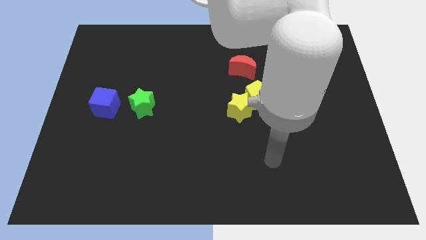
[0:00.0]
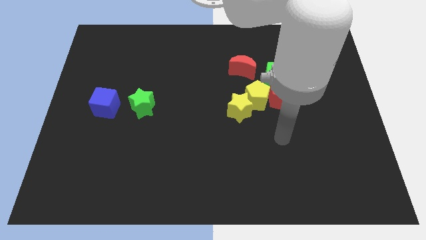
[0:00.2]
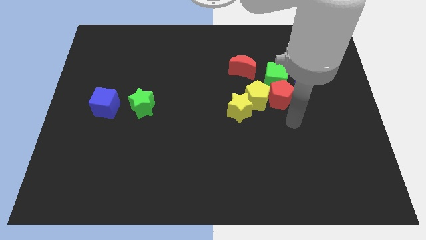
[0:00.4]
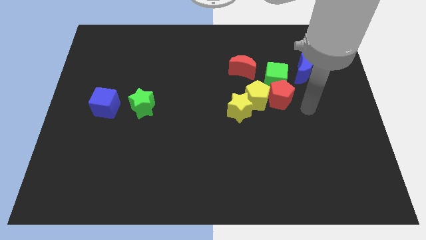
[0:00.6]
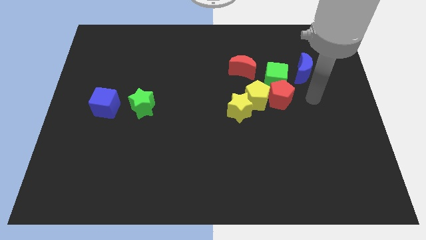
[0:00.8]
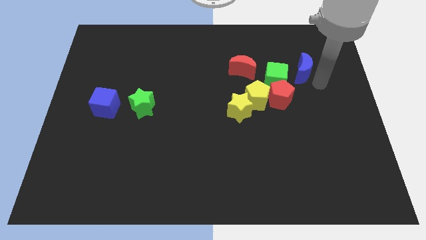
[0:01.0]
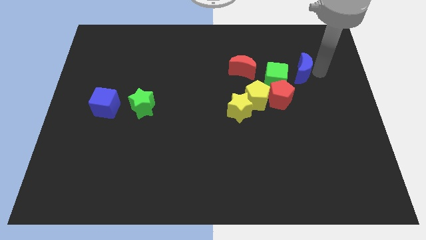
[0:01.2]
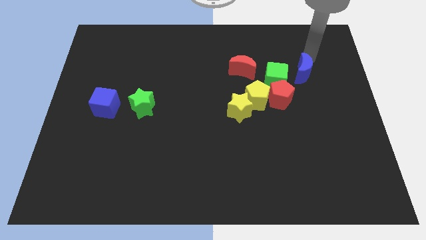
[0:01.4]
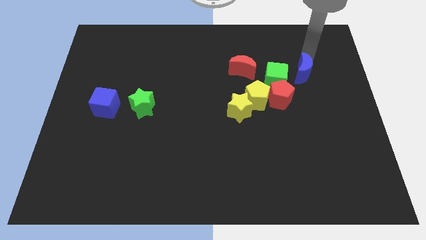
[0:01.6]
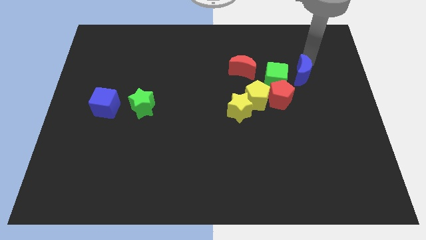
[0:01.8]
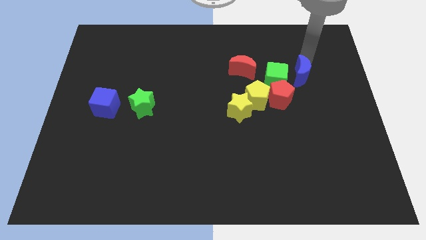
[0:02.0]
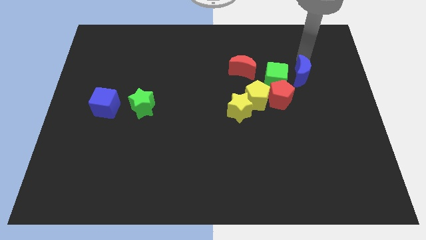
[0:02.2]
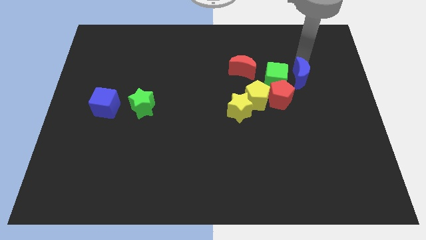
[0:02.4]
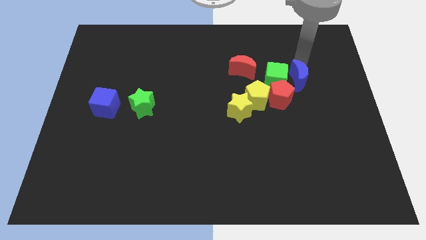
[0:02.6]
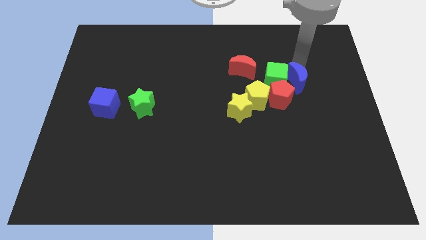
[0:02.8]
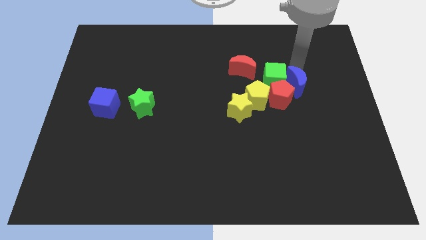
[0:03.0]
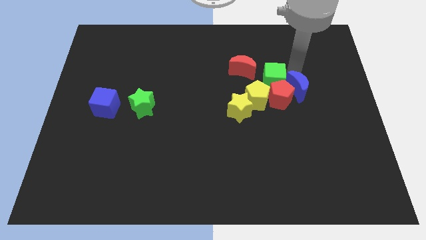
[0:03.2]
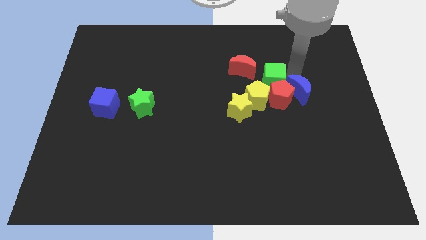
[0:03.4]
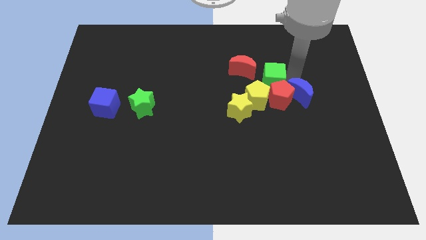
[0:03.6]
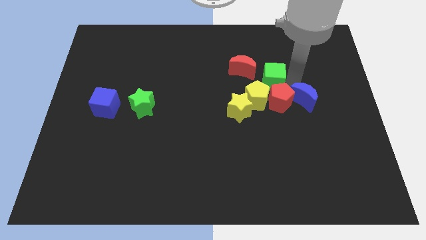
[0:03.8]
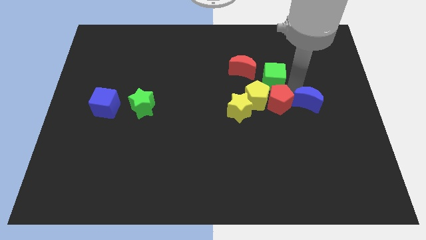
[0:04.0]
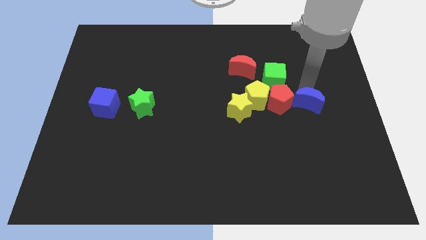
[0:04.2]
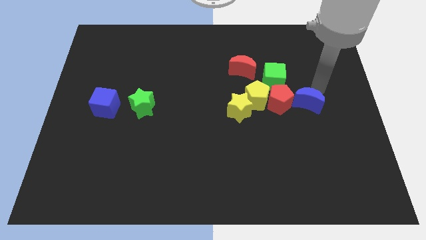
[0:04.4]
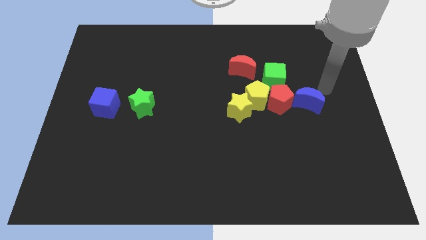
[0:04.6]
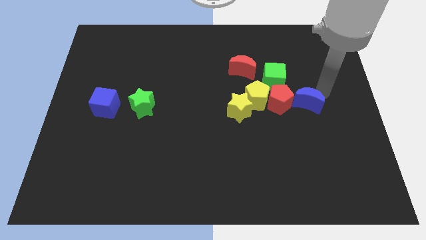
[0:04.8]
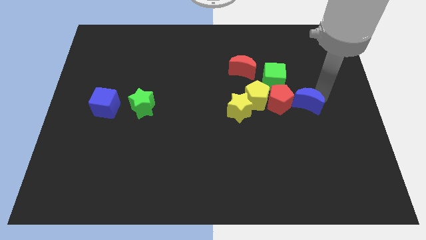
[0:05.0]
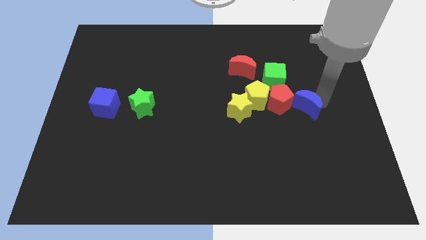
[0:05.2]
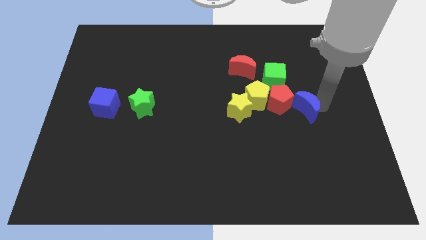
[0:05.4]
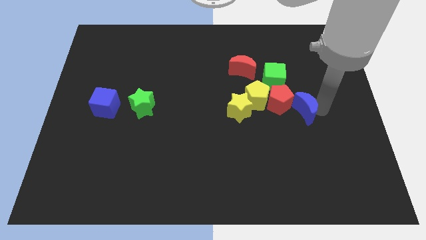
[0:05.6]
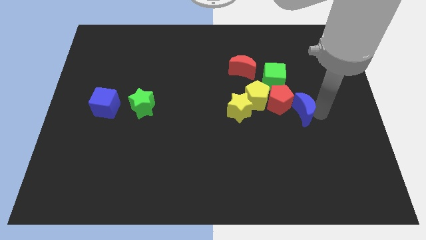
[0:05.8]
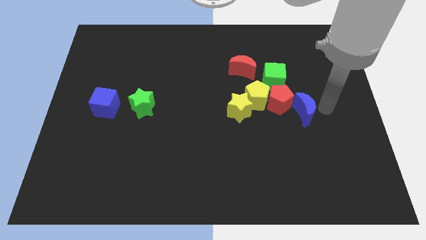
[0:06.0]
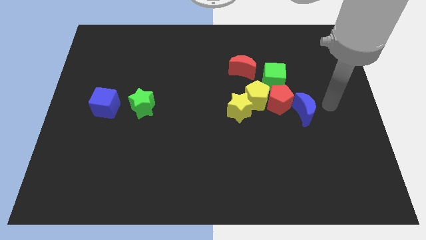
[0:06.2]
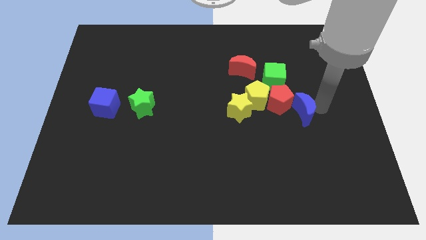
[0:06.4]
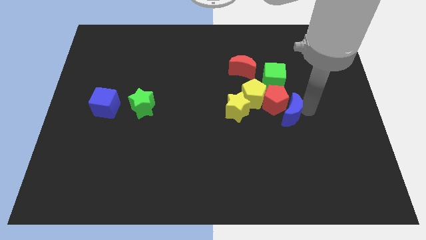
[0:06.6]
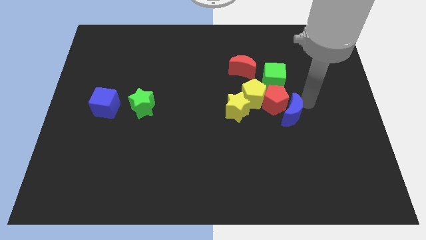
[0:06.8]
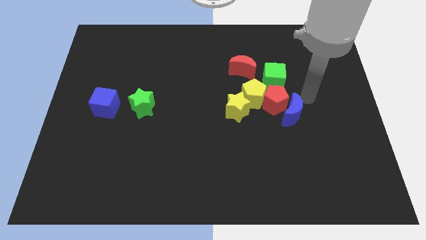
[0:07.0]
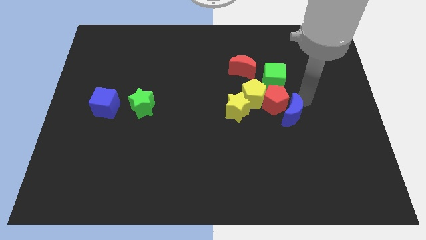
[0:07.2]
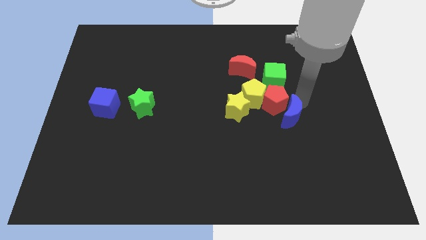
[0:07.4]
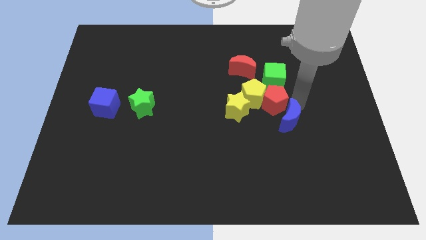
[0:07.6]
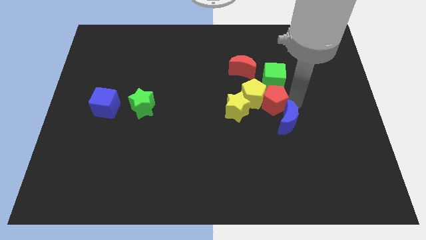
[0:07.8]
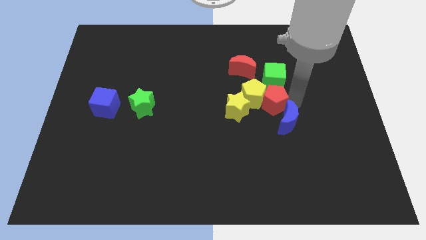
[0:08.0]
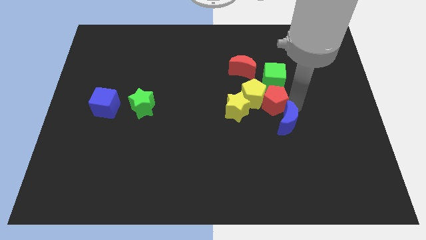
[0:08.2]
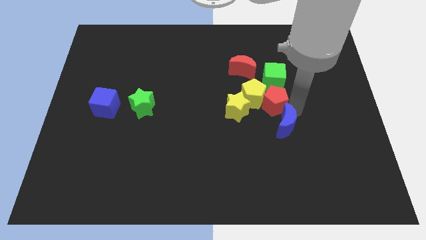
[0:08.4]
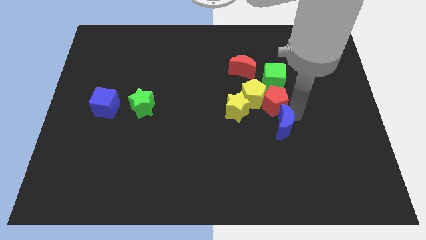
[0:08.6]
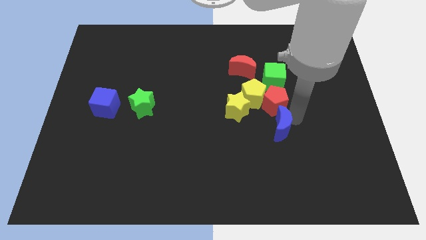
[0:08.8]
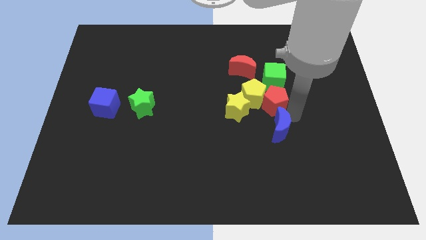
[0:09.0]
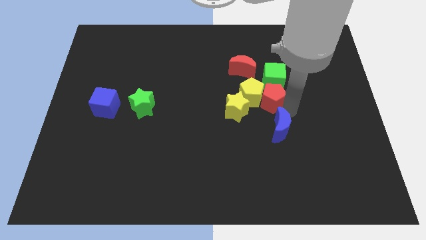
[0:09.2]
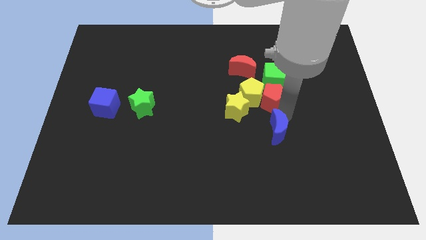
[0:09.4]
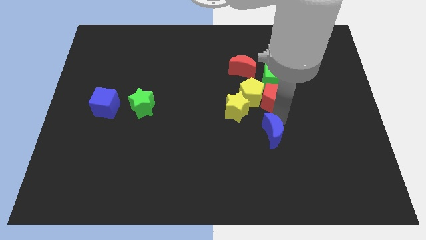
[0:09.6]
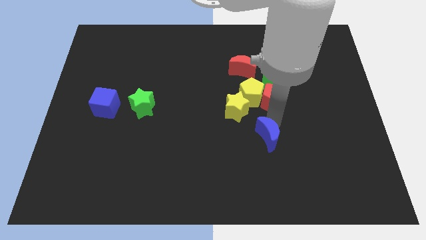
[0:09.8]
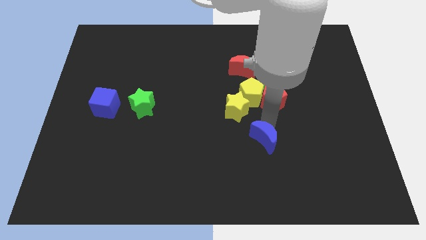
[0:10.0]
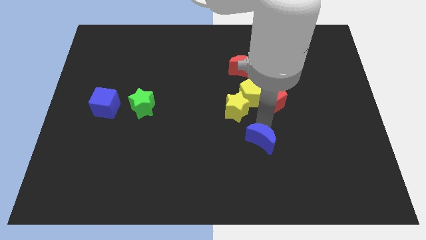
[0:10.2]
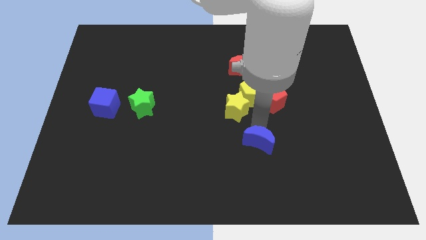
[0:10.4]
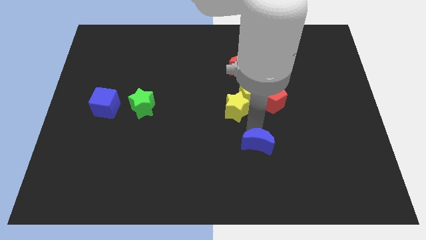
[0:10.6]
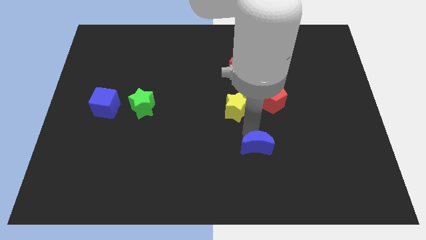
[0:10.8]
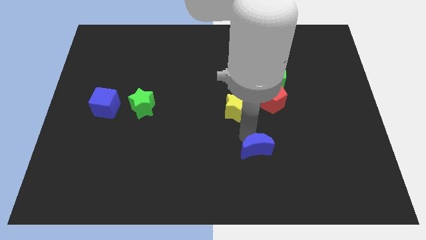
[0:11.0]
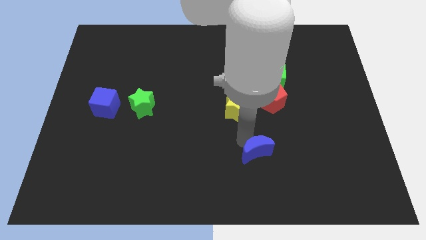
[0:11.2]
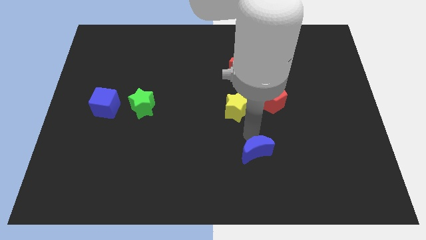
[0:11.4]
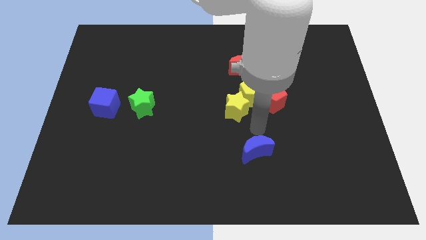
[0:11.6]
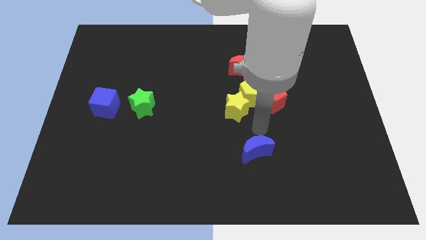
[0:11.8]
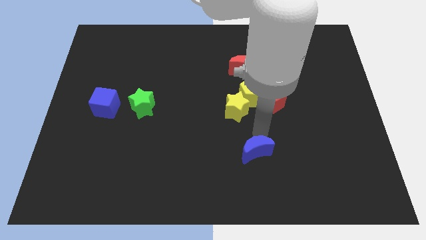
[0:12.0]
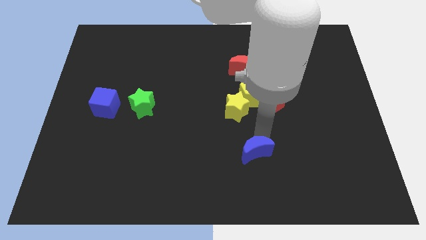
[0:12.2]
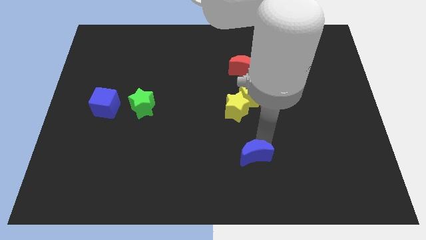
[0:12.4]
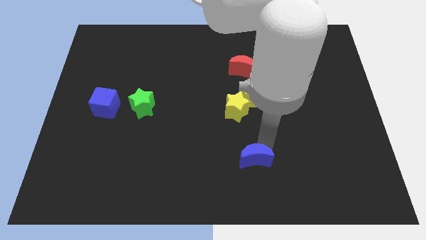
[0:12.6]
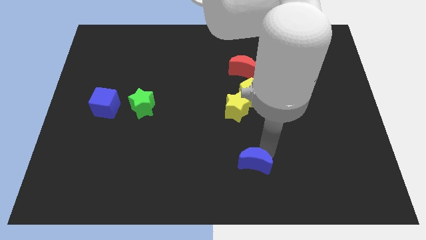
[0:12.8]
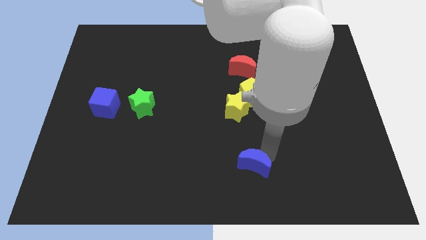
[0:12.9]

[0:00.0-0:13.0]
put the blue moon to the bottom

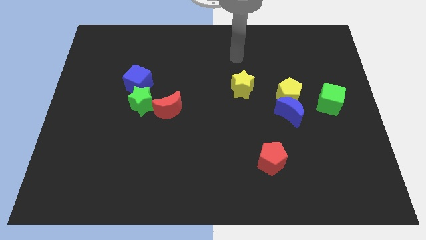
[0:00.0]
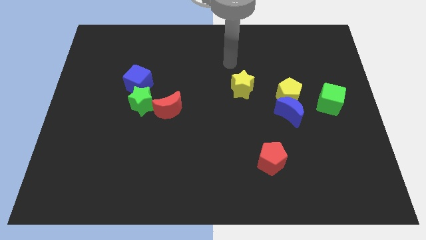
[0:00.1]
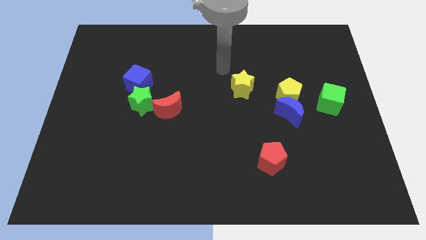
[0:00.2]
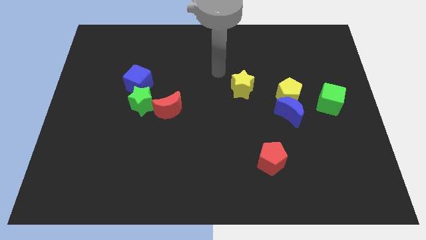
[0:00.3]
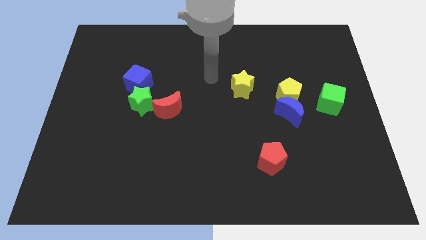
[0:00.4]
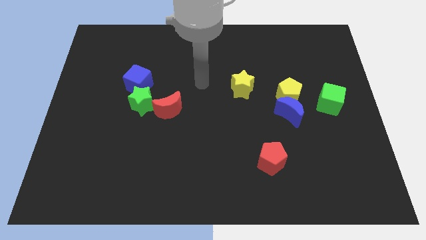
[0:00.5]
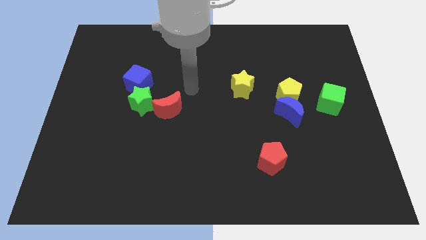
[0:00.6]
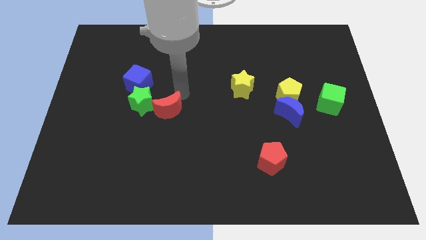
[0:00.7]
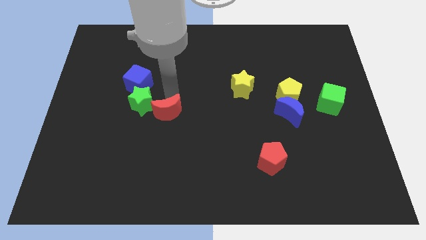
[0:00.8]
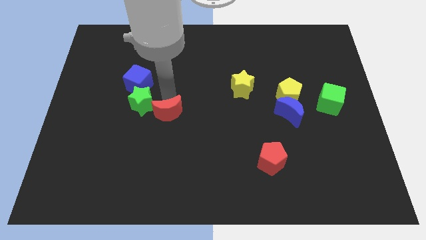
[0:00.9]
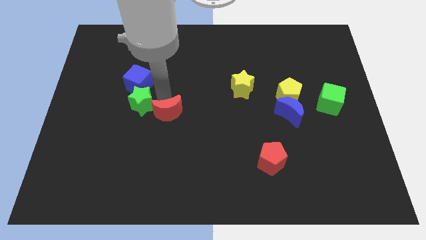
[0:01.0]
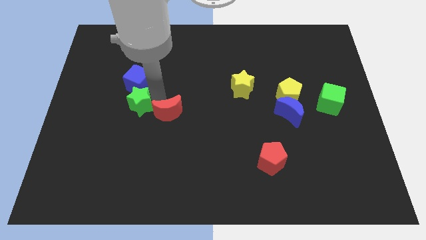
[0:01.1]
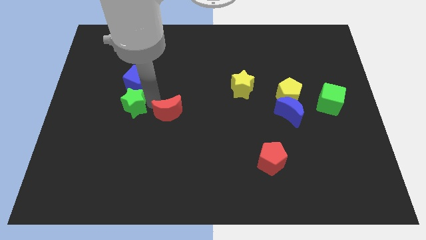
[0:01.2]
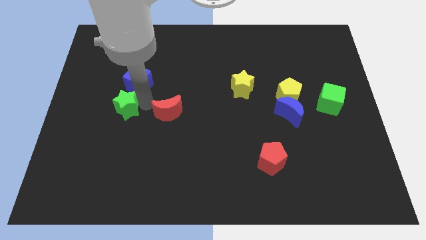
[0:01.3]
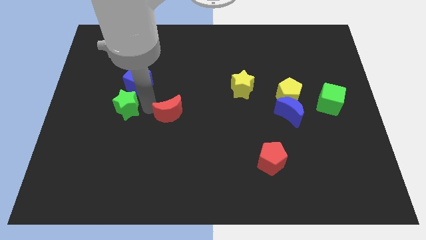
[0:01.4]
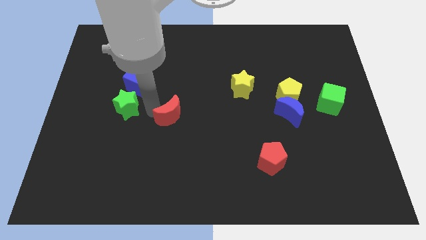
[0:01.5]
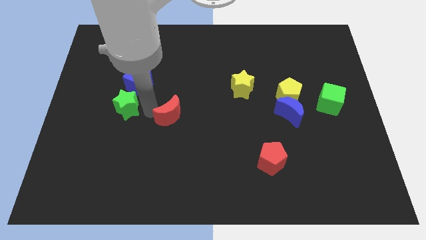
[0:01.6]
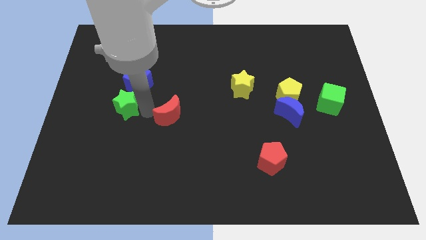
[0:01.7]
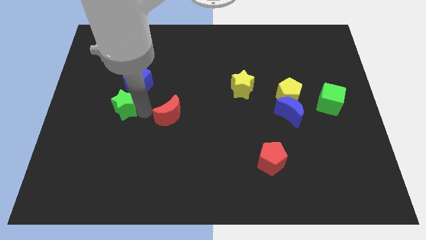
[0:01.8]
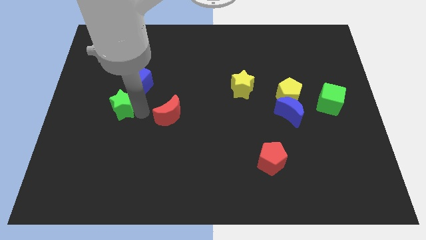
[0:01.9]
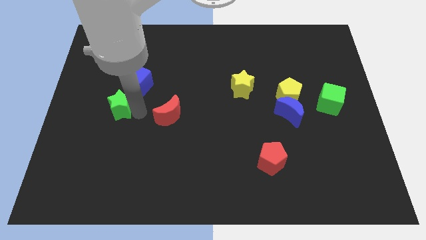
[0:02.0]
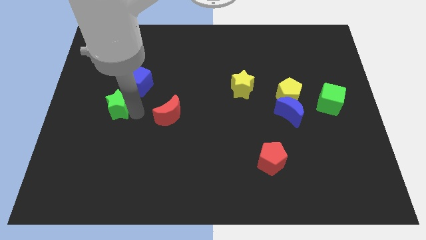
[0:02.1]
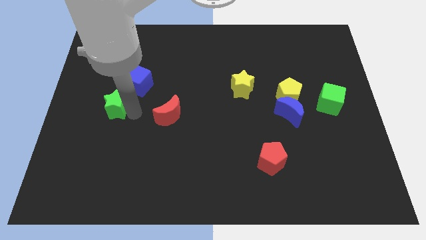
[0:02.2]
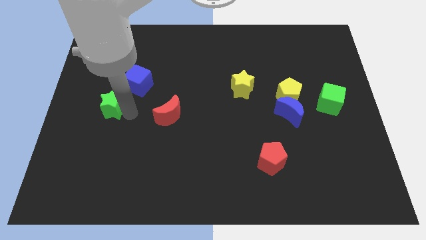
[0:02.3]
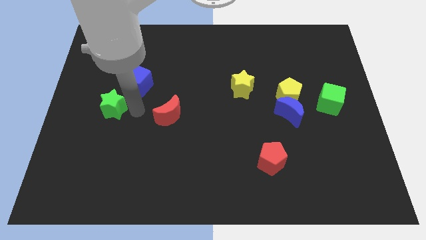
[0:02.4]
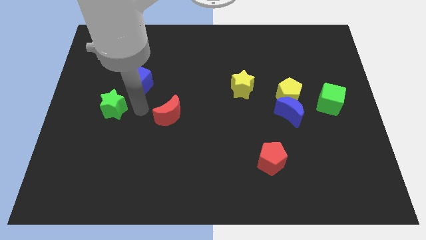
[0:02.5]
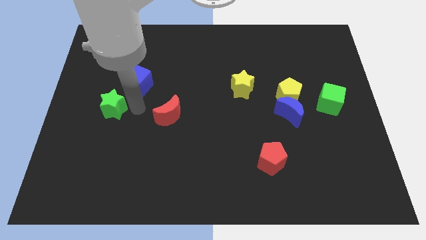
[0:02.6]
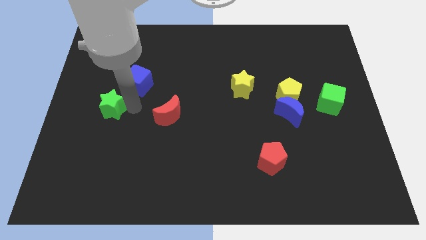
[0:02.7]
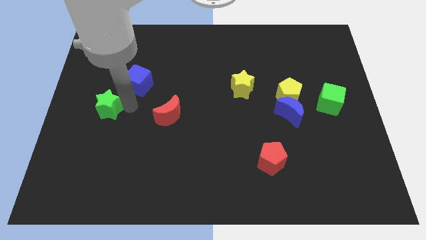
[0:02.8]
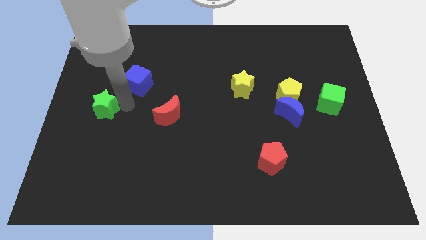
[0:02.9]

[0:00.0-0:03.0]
push the green star to the left side
